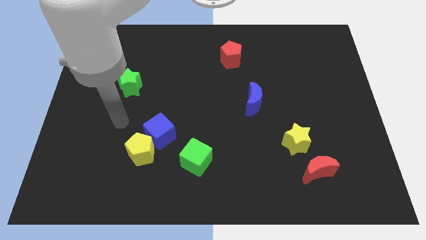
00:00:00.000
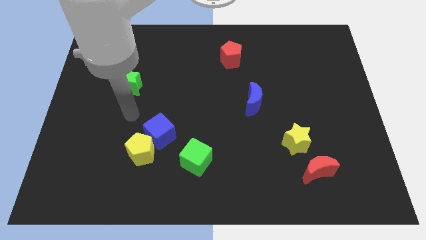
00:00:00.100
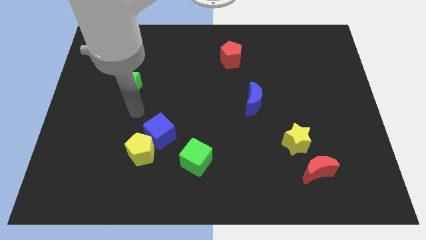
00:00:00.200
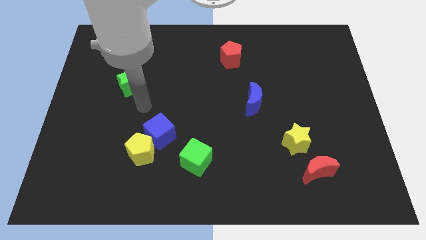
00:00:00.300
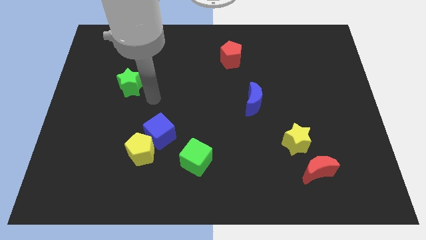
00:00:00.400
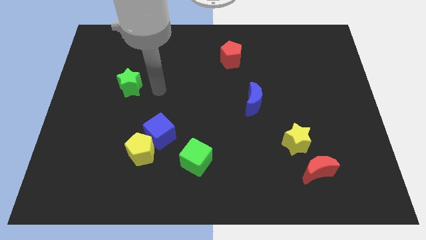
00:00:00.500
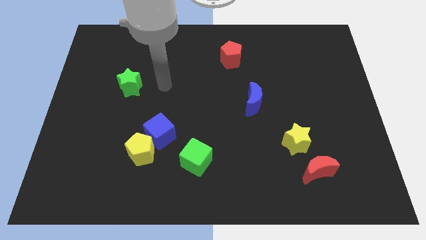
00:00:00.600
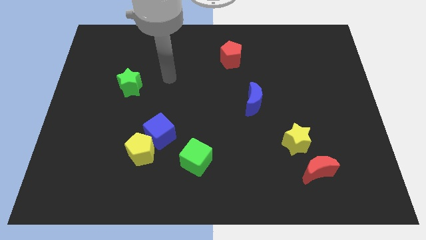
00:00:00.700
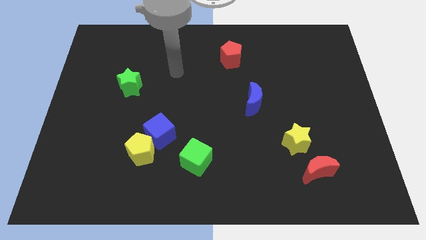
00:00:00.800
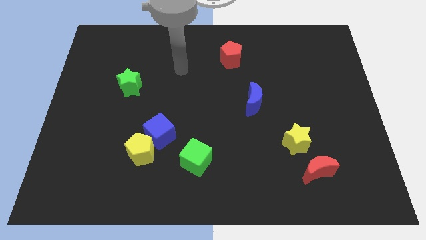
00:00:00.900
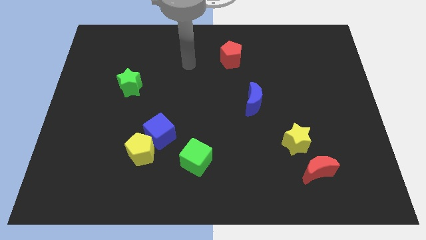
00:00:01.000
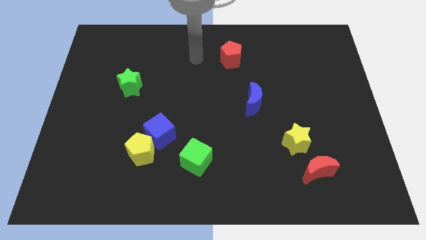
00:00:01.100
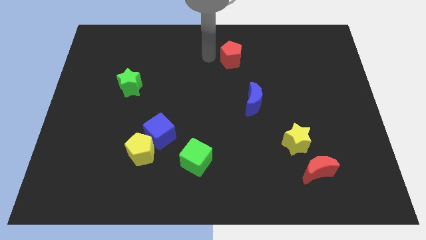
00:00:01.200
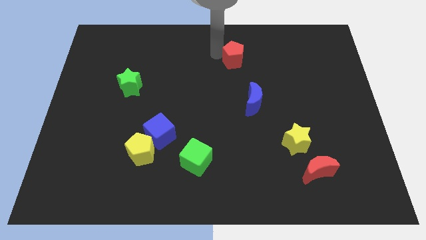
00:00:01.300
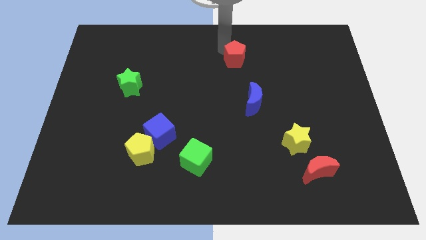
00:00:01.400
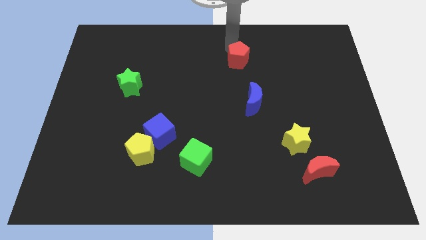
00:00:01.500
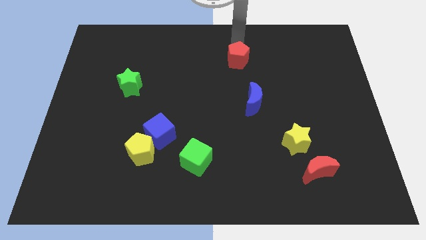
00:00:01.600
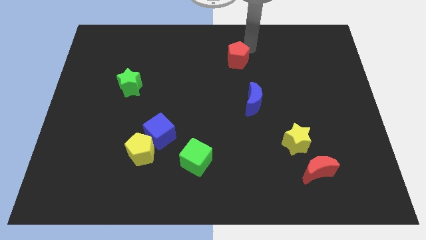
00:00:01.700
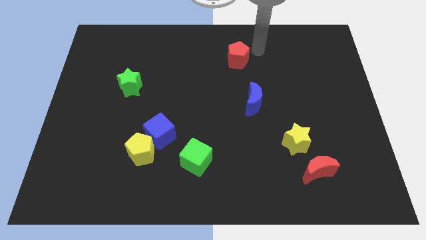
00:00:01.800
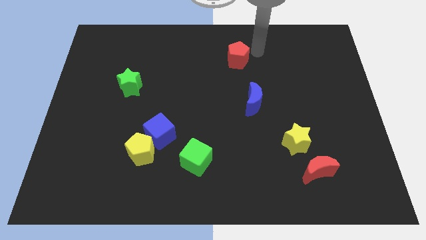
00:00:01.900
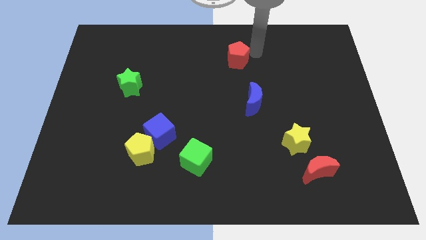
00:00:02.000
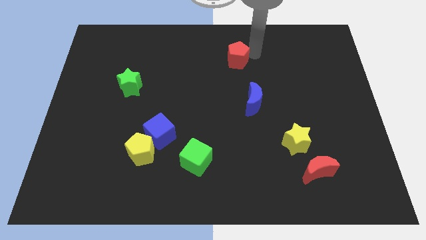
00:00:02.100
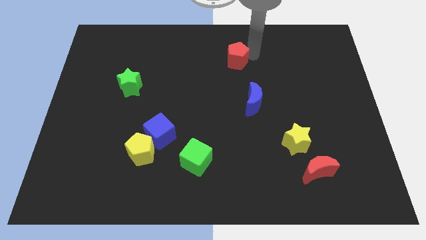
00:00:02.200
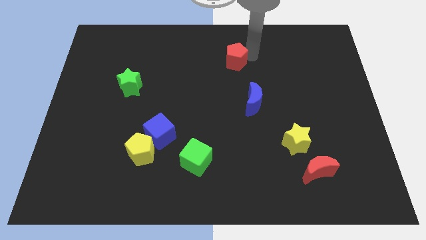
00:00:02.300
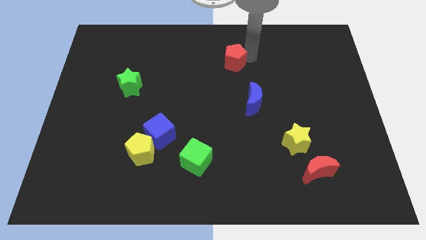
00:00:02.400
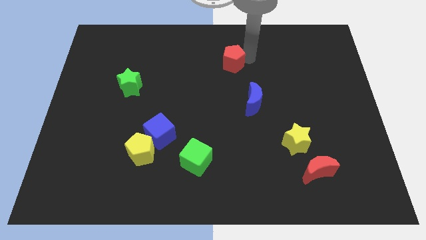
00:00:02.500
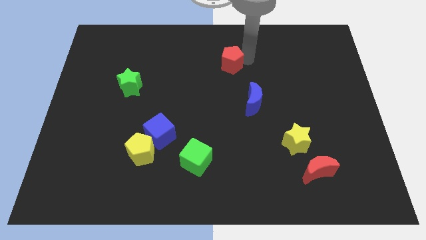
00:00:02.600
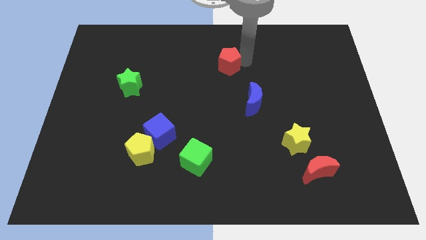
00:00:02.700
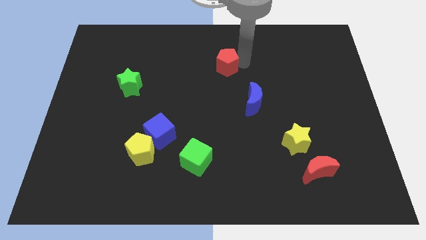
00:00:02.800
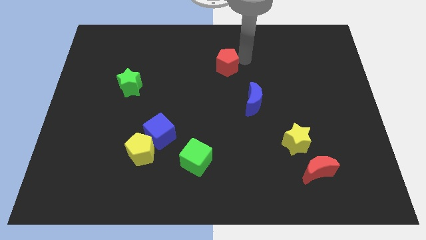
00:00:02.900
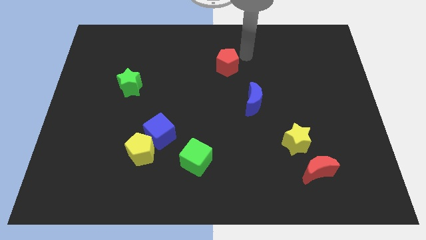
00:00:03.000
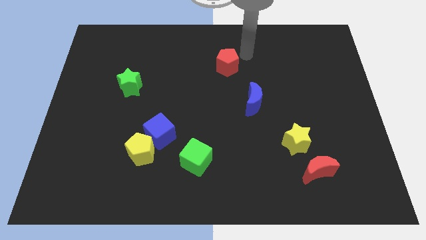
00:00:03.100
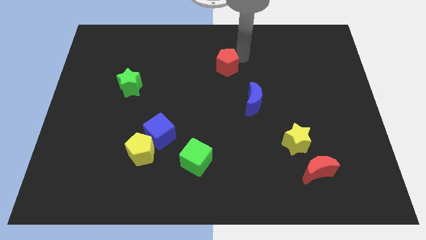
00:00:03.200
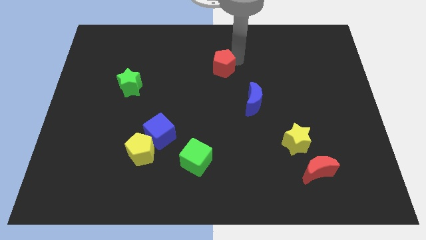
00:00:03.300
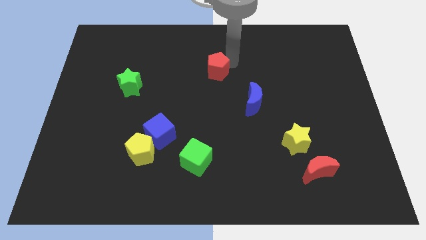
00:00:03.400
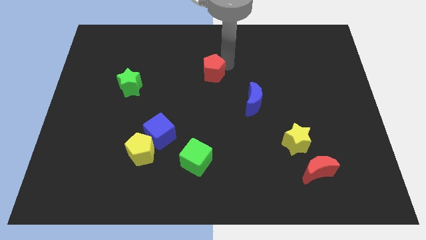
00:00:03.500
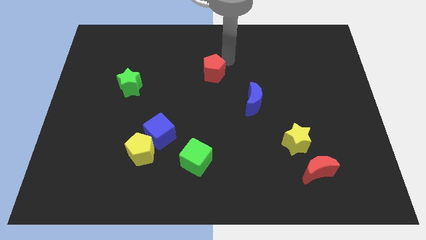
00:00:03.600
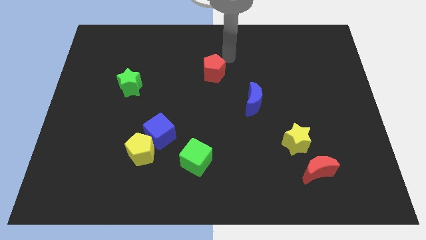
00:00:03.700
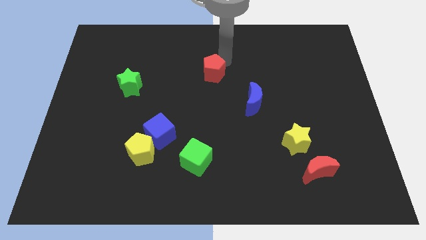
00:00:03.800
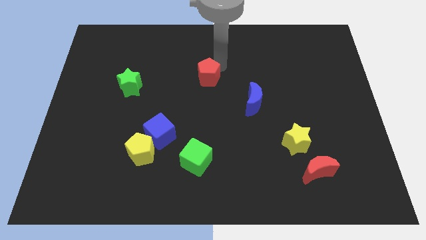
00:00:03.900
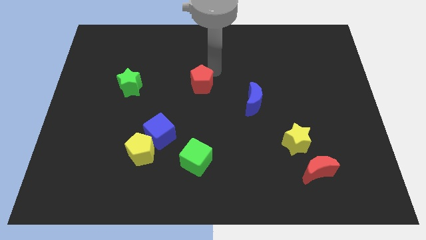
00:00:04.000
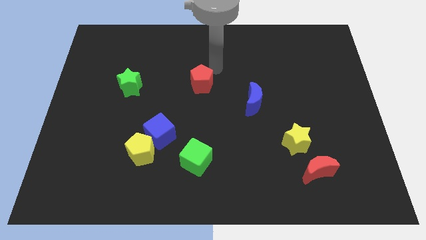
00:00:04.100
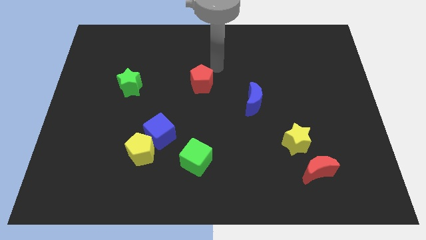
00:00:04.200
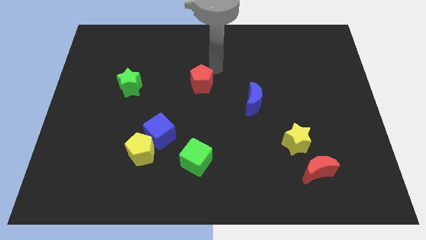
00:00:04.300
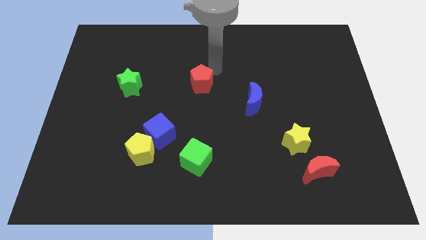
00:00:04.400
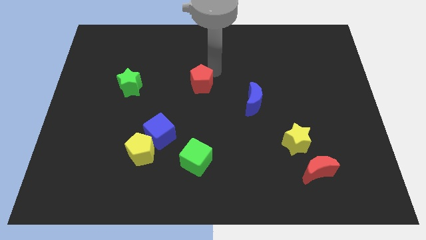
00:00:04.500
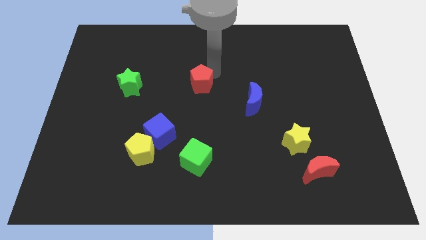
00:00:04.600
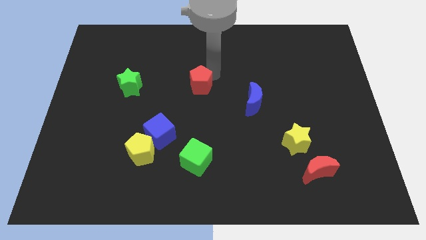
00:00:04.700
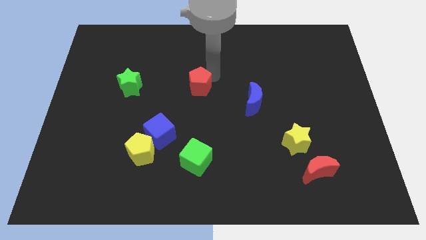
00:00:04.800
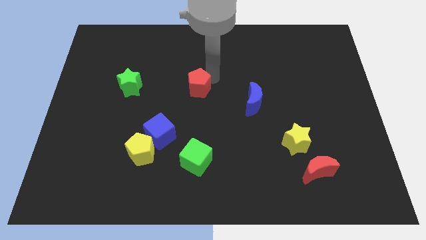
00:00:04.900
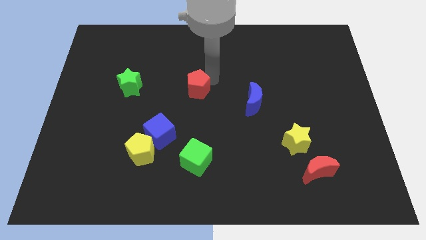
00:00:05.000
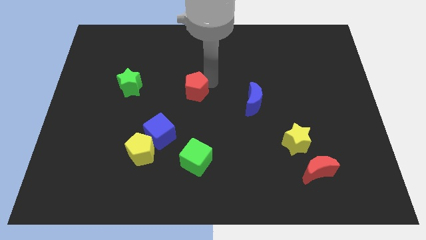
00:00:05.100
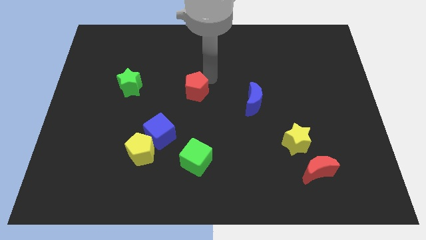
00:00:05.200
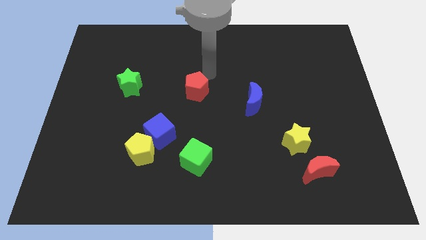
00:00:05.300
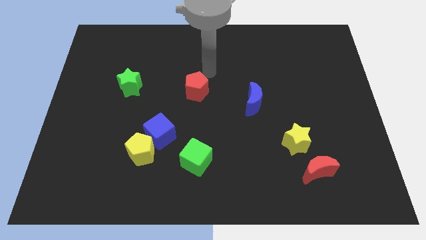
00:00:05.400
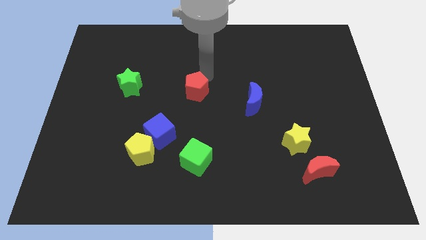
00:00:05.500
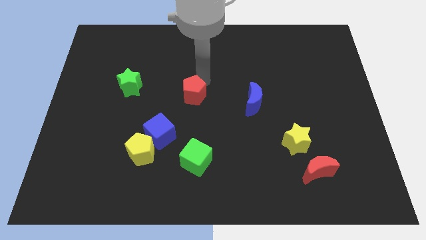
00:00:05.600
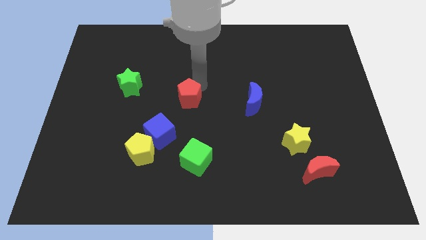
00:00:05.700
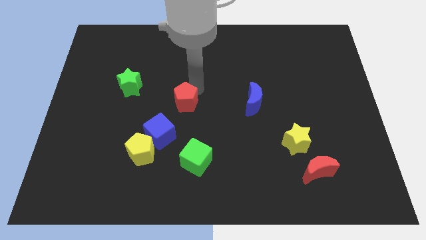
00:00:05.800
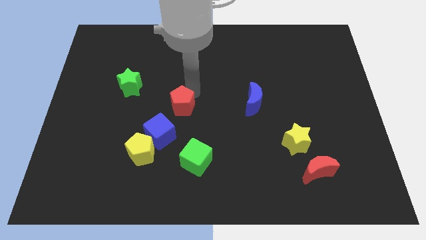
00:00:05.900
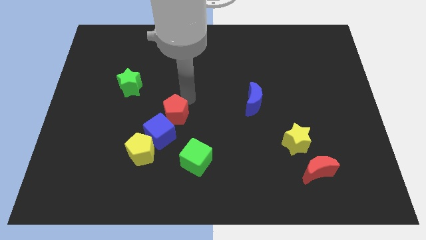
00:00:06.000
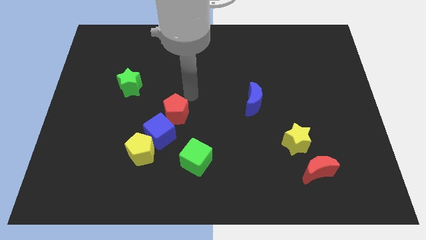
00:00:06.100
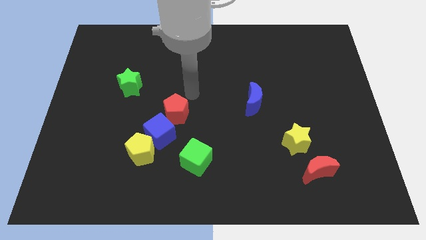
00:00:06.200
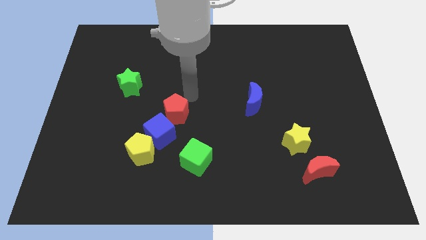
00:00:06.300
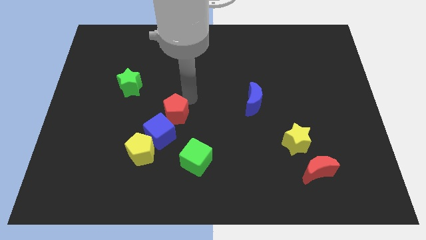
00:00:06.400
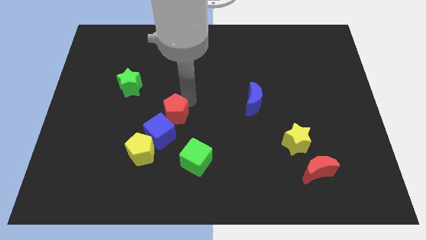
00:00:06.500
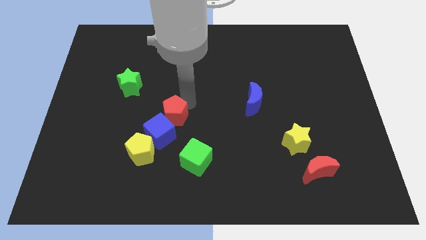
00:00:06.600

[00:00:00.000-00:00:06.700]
move the red pentagon to the blue cube
